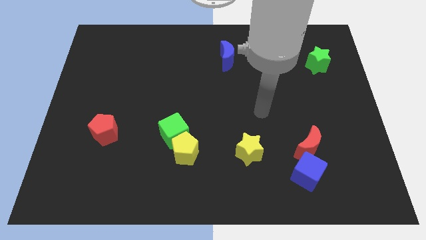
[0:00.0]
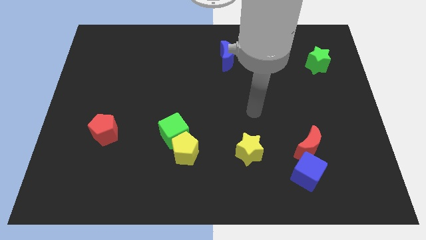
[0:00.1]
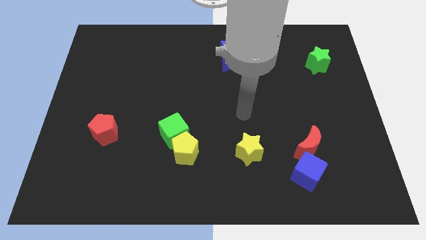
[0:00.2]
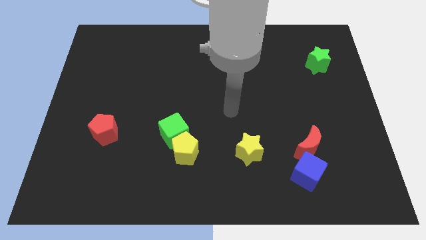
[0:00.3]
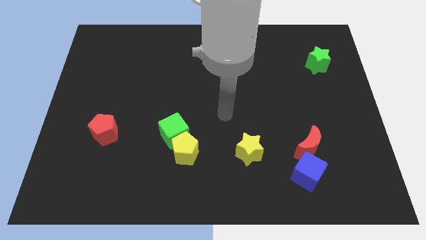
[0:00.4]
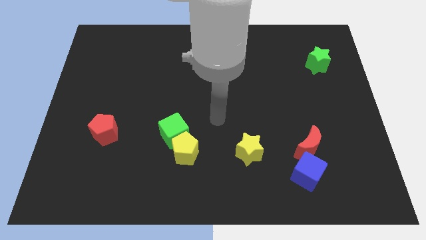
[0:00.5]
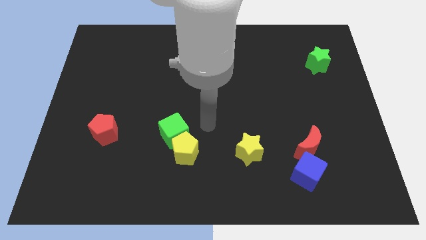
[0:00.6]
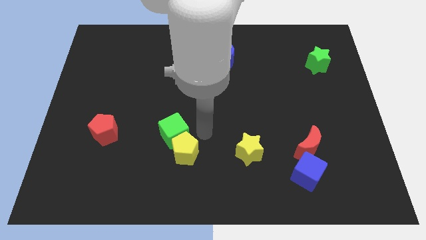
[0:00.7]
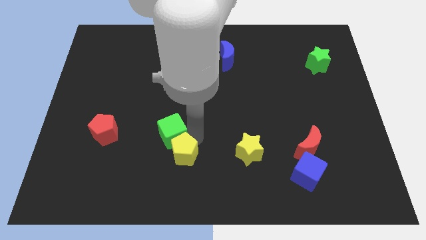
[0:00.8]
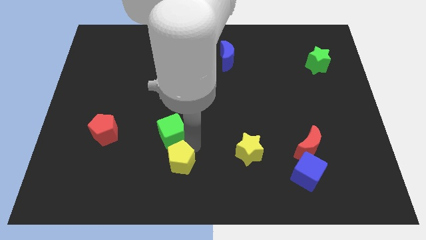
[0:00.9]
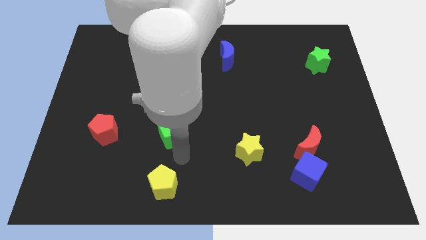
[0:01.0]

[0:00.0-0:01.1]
separate the green cube from the yellow pentagon

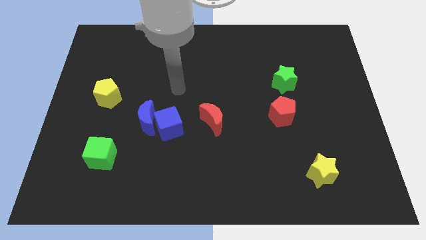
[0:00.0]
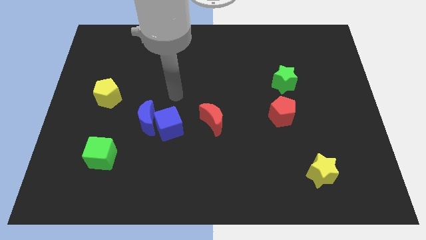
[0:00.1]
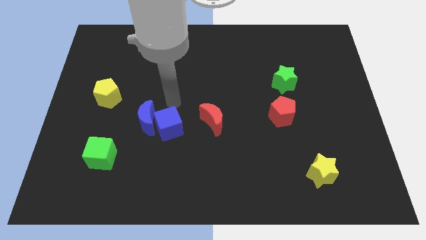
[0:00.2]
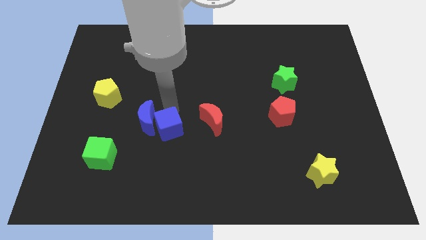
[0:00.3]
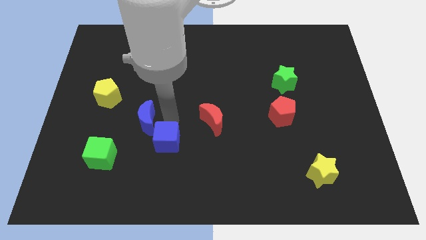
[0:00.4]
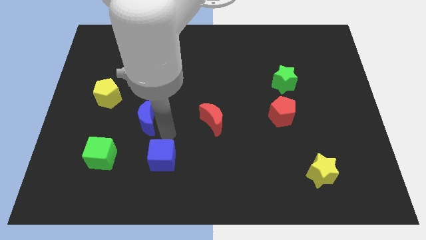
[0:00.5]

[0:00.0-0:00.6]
pull the blue moon apart from the blue cube

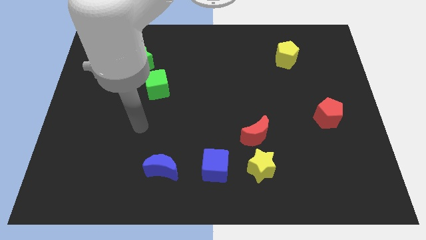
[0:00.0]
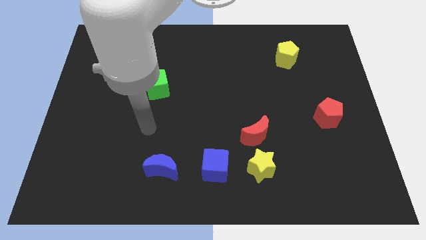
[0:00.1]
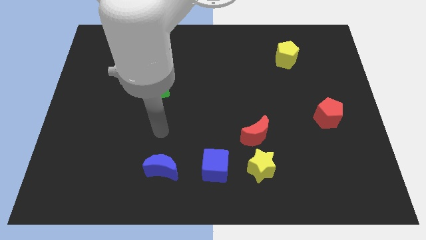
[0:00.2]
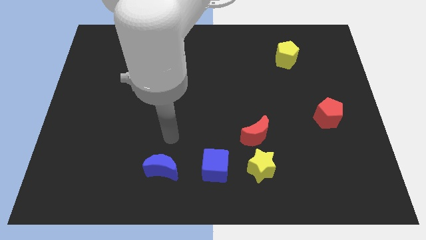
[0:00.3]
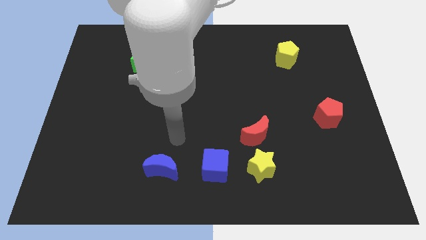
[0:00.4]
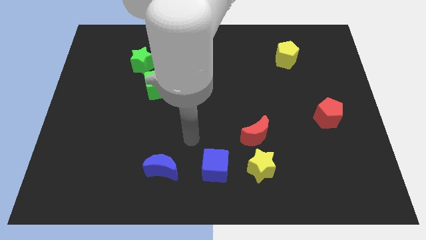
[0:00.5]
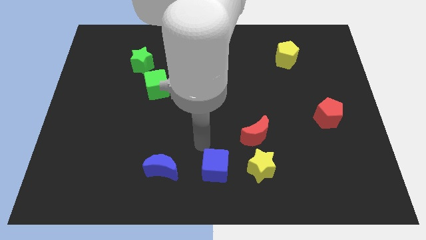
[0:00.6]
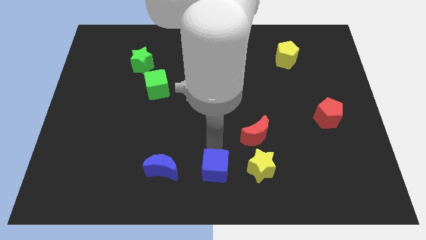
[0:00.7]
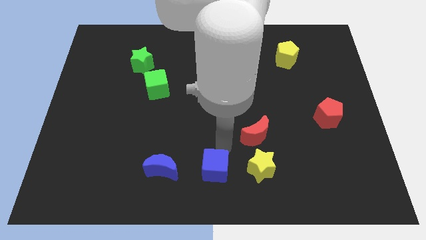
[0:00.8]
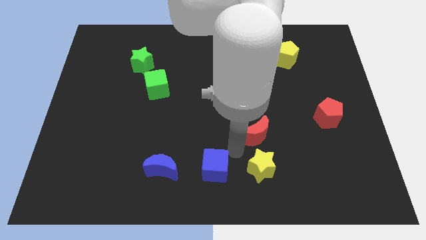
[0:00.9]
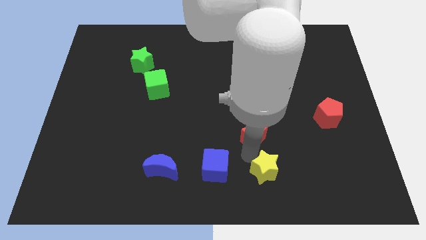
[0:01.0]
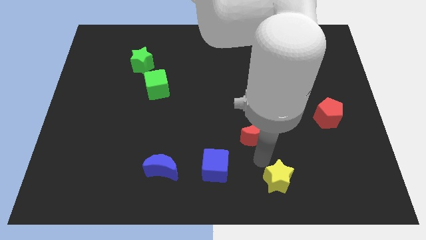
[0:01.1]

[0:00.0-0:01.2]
move the red moon away from the yellow star

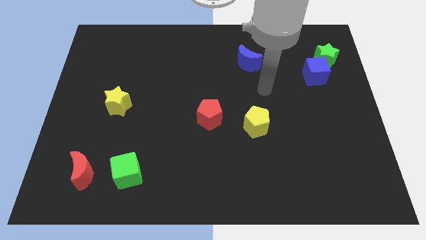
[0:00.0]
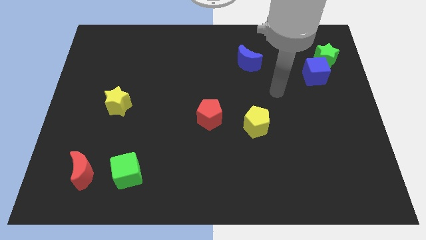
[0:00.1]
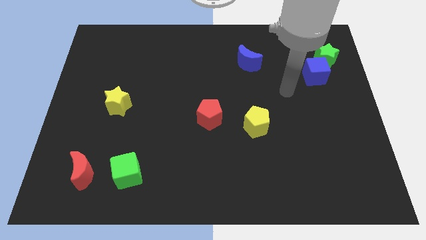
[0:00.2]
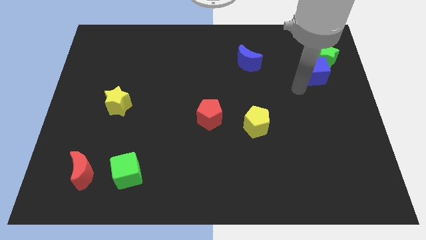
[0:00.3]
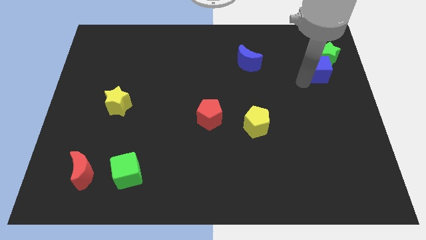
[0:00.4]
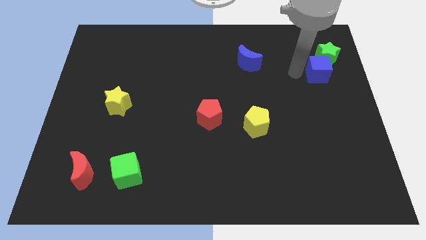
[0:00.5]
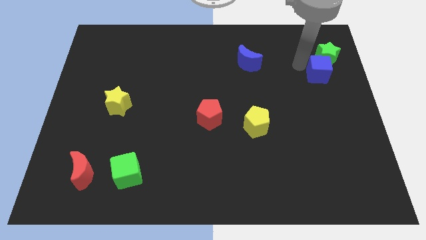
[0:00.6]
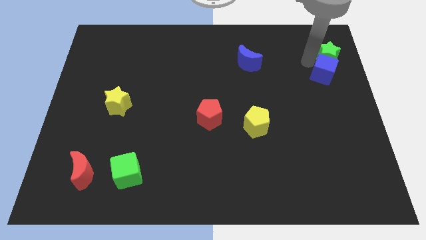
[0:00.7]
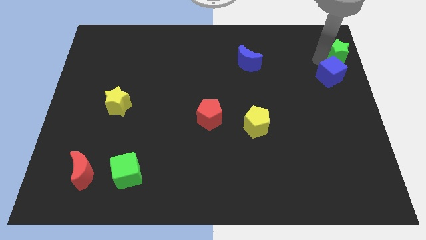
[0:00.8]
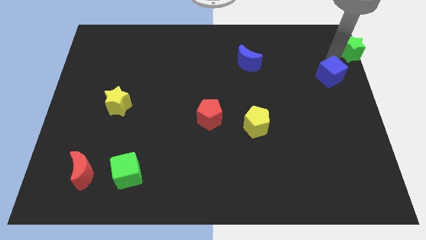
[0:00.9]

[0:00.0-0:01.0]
move the blue cube away from the green star

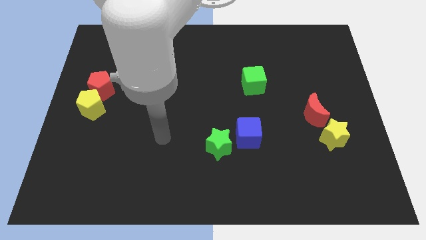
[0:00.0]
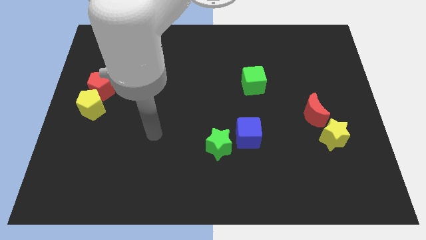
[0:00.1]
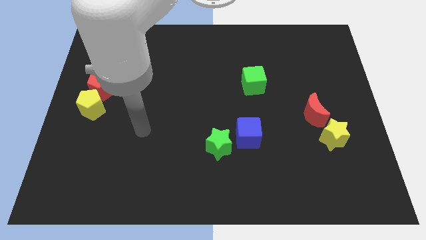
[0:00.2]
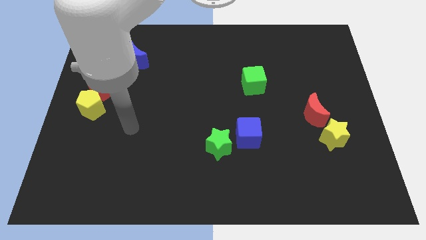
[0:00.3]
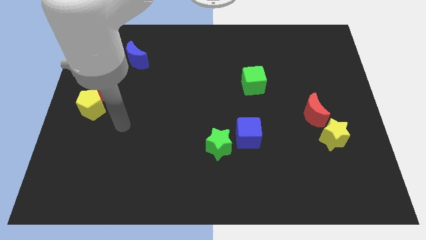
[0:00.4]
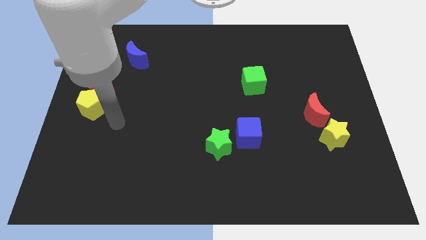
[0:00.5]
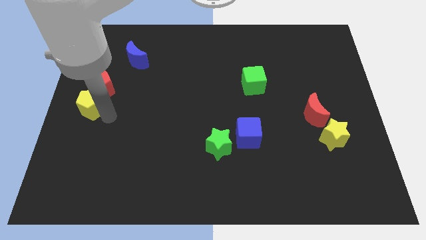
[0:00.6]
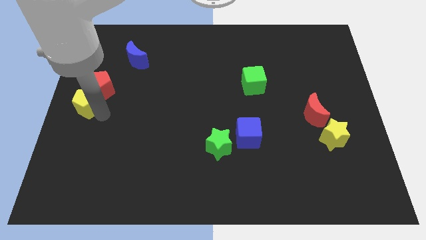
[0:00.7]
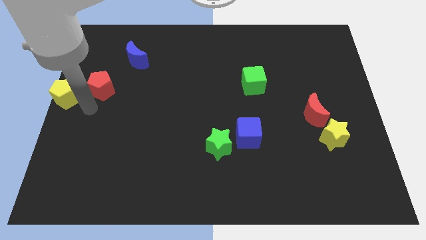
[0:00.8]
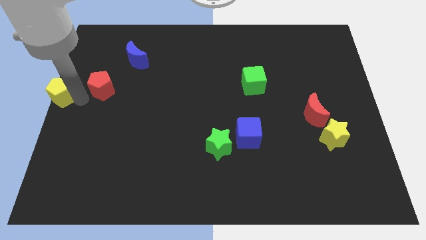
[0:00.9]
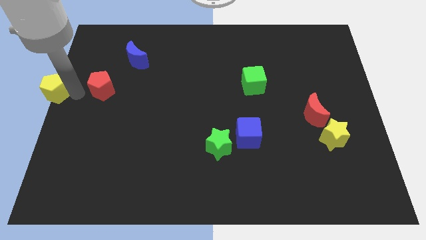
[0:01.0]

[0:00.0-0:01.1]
pull the red pentagon apart from the yellow pentagon

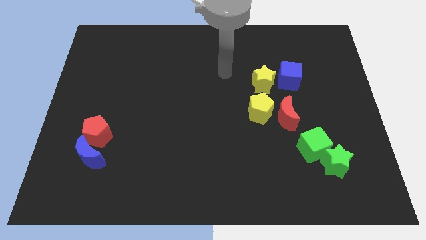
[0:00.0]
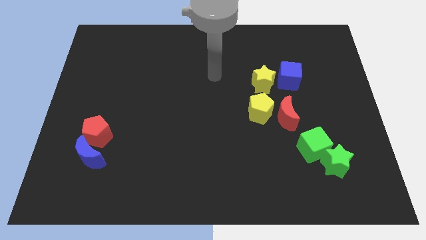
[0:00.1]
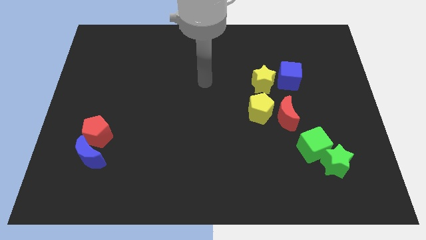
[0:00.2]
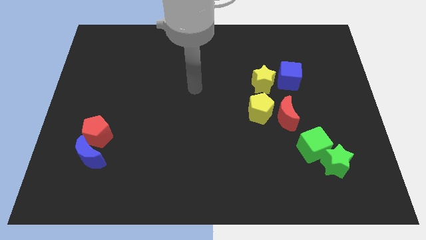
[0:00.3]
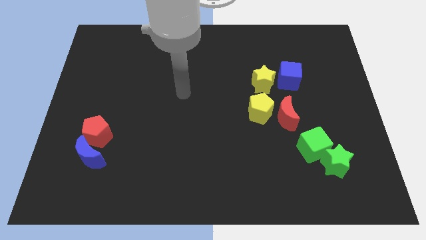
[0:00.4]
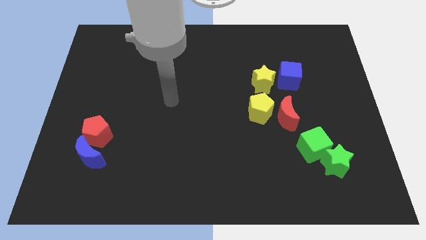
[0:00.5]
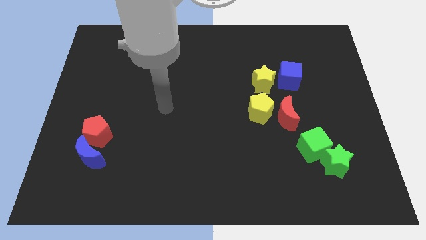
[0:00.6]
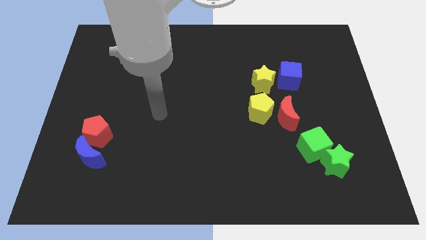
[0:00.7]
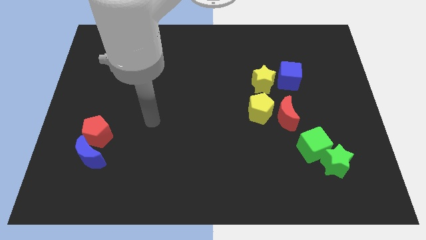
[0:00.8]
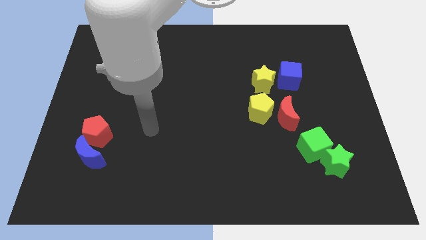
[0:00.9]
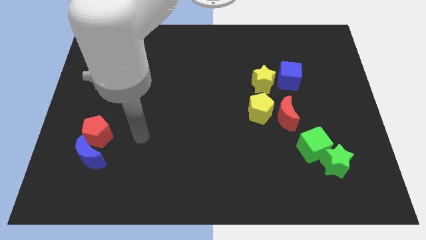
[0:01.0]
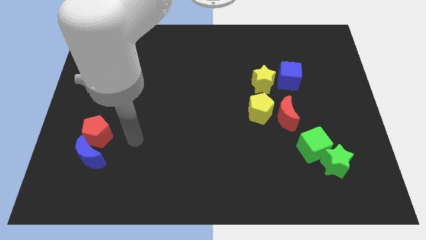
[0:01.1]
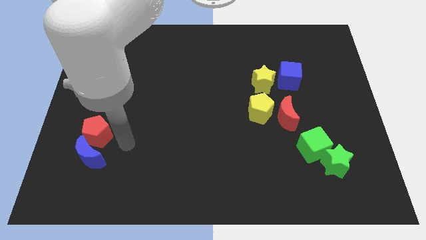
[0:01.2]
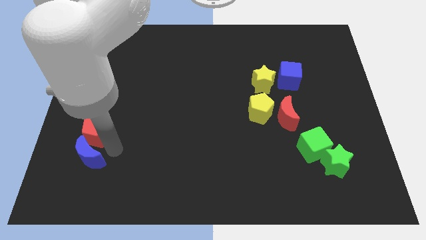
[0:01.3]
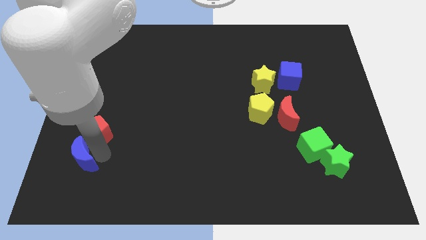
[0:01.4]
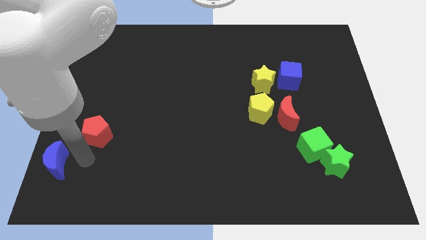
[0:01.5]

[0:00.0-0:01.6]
separate the red pentagon from the blue moon

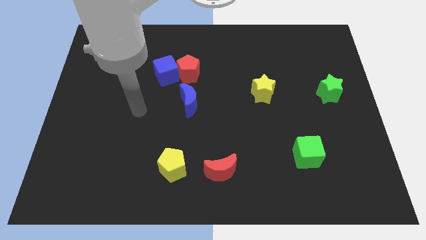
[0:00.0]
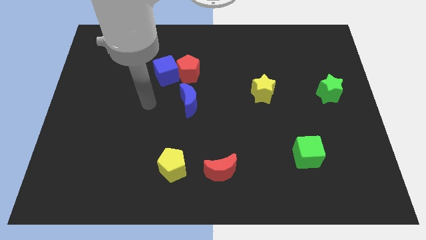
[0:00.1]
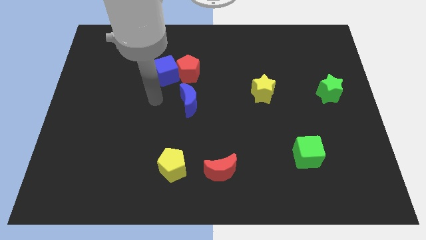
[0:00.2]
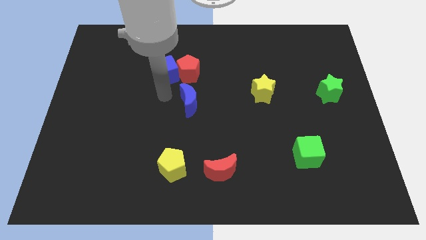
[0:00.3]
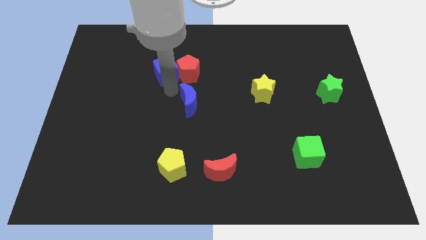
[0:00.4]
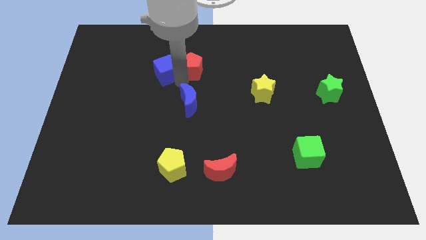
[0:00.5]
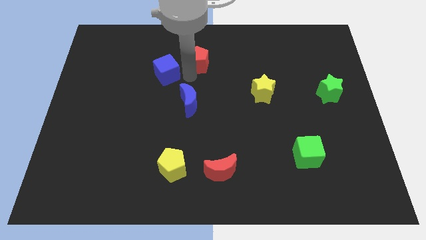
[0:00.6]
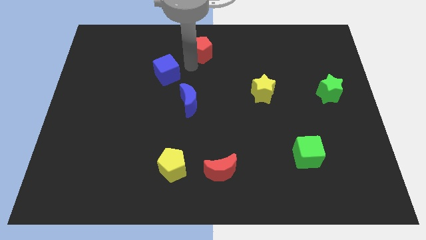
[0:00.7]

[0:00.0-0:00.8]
separate the blue cube from the red pentagon

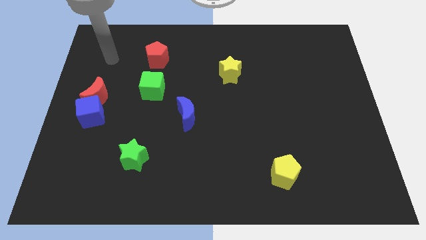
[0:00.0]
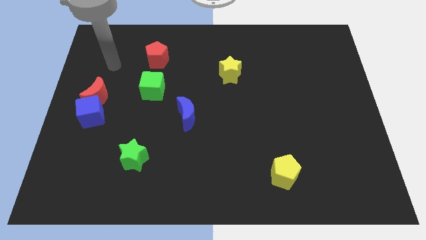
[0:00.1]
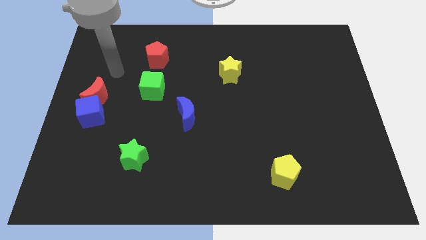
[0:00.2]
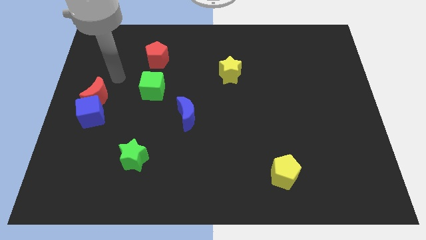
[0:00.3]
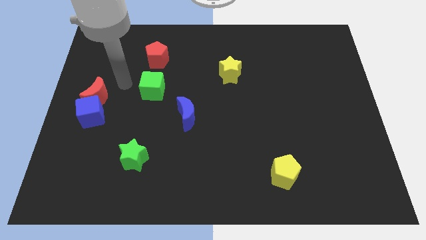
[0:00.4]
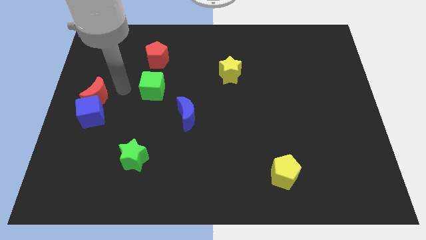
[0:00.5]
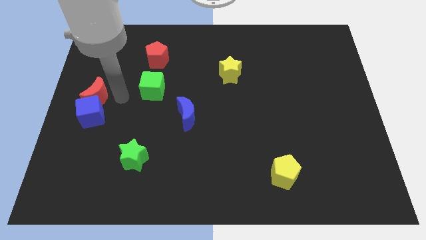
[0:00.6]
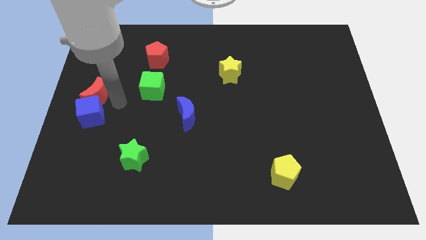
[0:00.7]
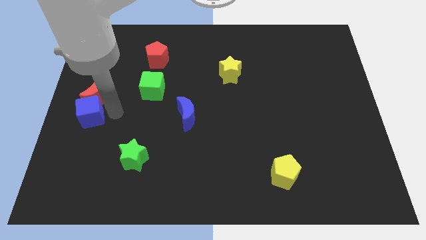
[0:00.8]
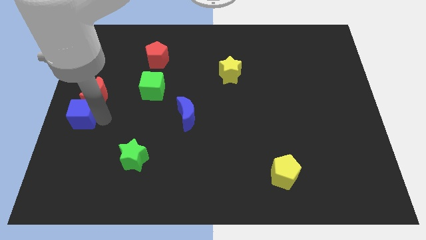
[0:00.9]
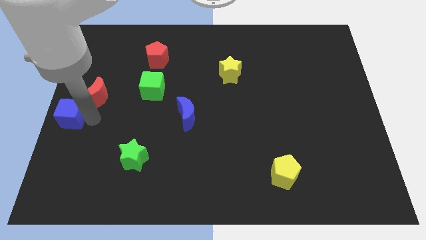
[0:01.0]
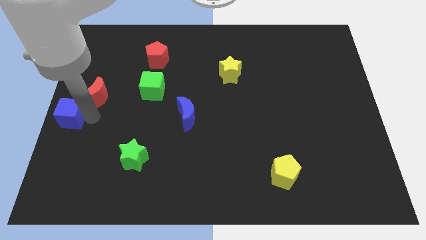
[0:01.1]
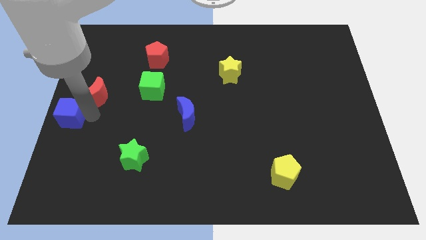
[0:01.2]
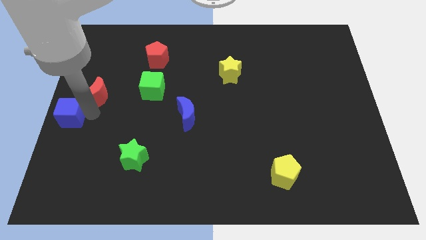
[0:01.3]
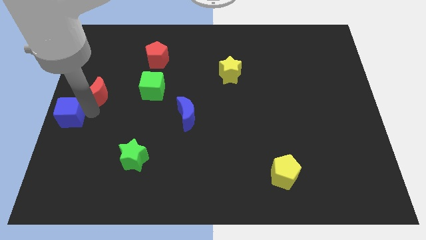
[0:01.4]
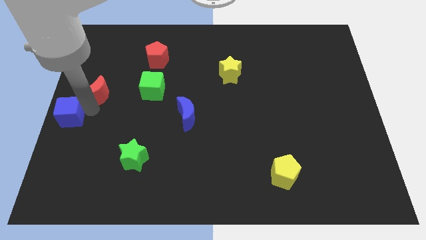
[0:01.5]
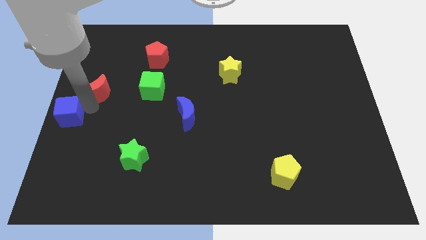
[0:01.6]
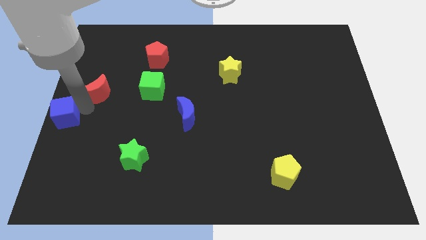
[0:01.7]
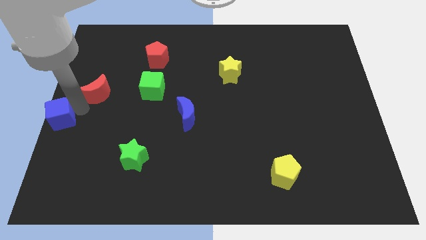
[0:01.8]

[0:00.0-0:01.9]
pull the red moon apart from the blue cube
